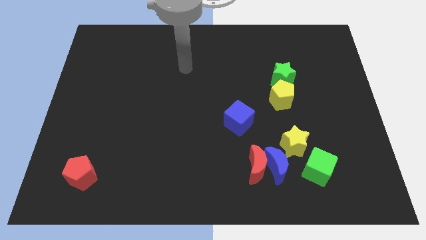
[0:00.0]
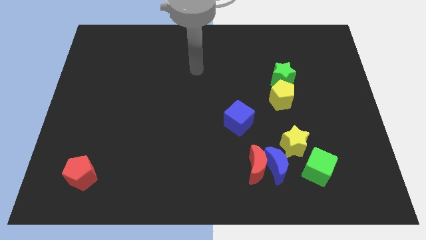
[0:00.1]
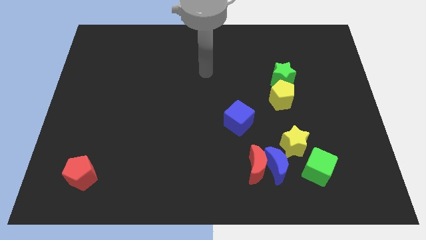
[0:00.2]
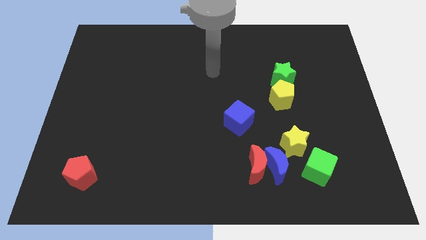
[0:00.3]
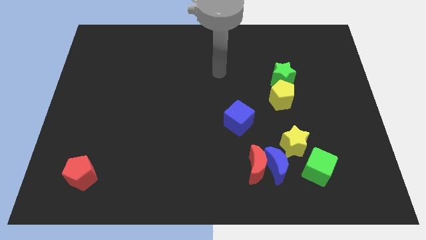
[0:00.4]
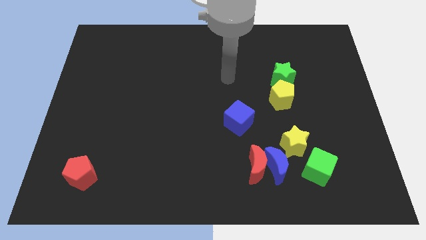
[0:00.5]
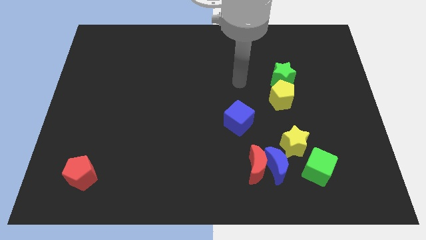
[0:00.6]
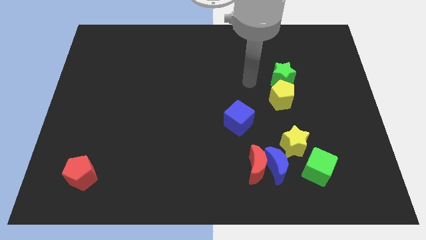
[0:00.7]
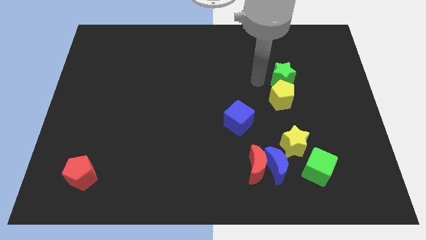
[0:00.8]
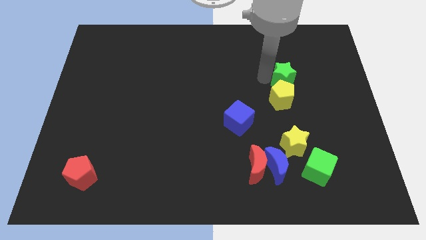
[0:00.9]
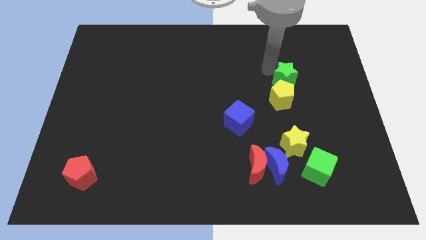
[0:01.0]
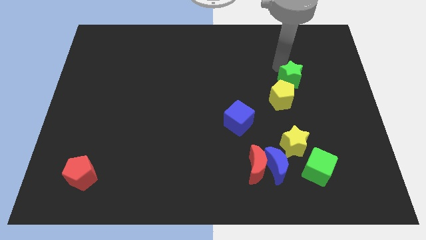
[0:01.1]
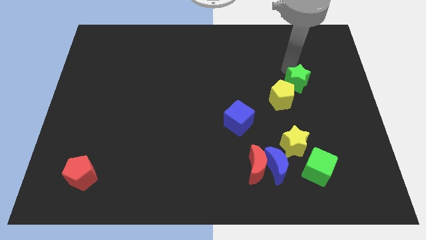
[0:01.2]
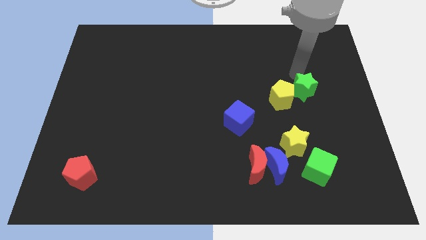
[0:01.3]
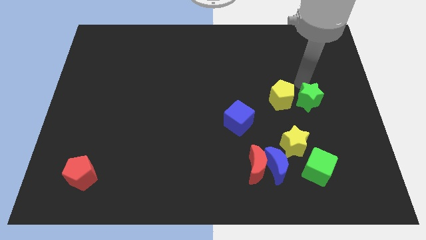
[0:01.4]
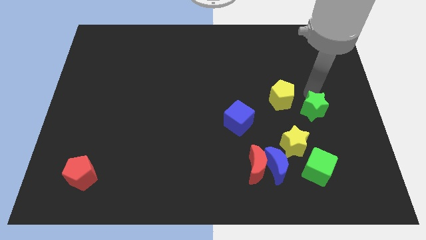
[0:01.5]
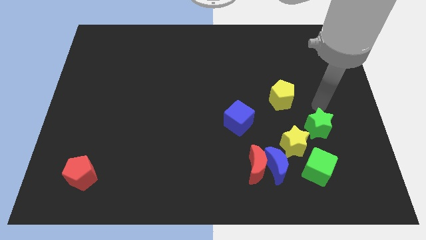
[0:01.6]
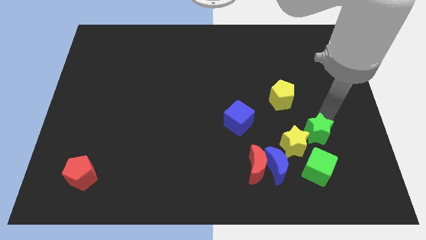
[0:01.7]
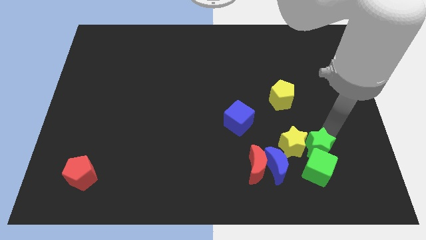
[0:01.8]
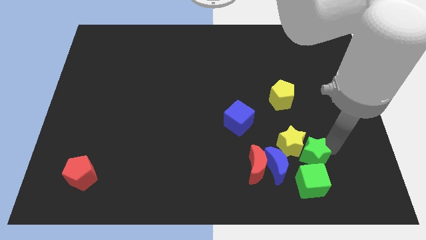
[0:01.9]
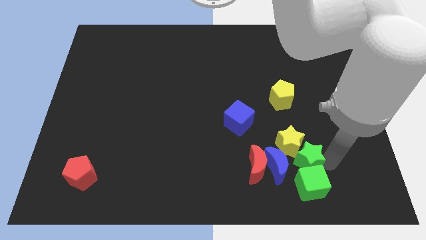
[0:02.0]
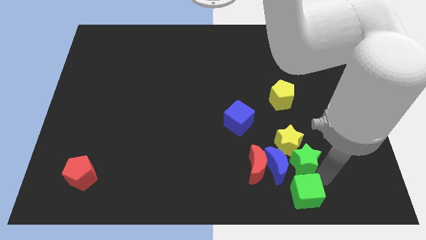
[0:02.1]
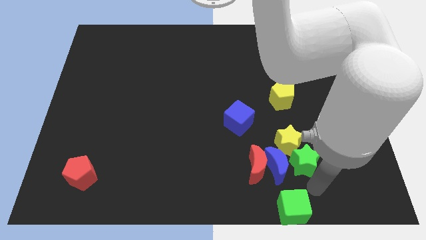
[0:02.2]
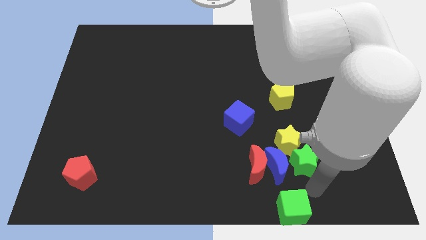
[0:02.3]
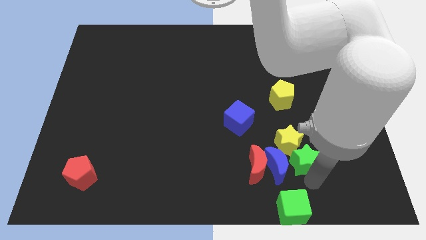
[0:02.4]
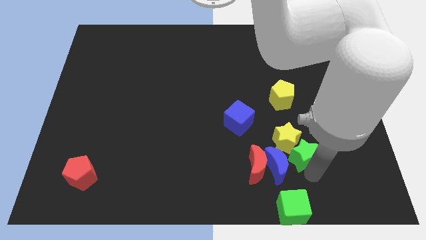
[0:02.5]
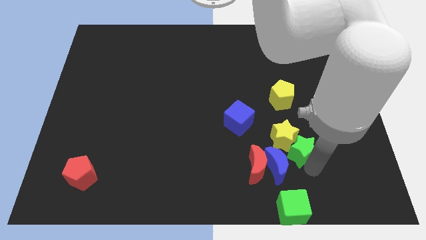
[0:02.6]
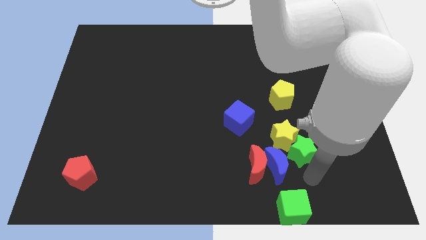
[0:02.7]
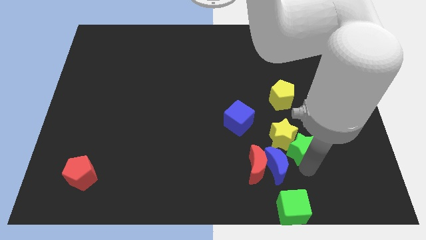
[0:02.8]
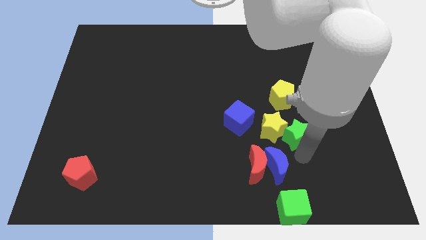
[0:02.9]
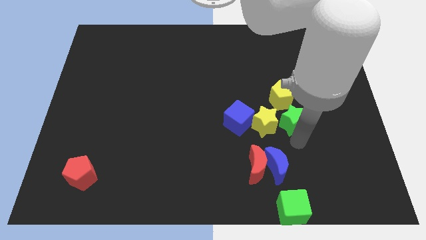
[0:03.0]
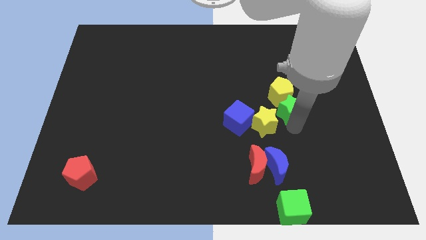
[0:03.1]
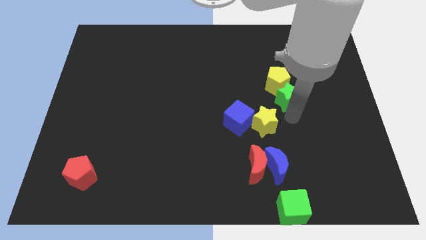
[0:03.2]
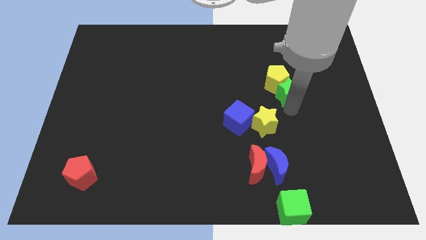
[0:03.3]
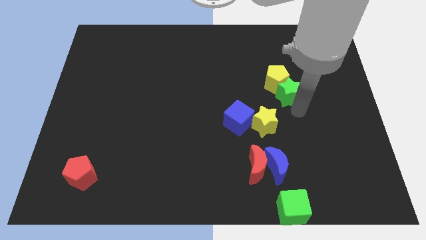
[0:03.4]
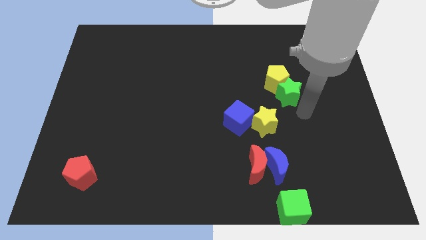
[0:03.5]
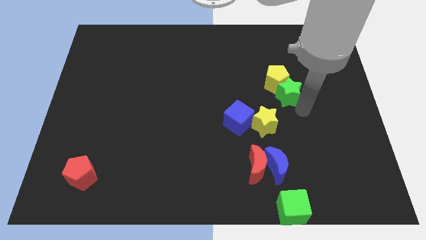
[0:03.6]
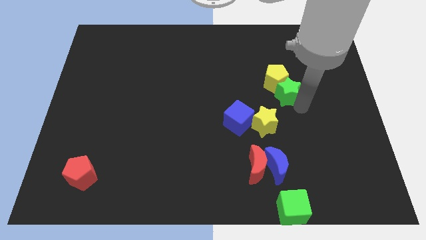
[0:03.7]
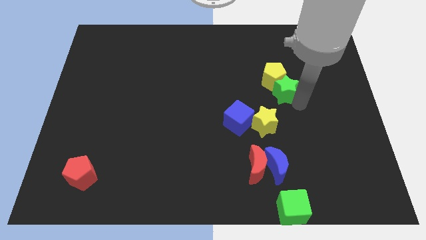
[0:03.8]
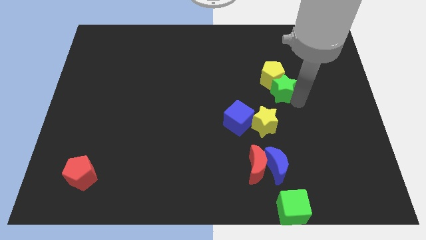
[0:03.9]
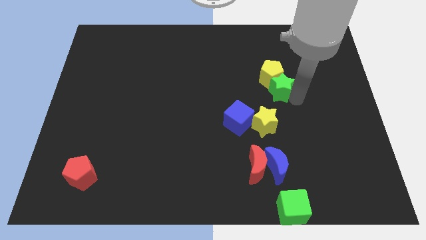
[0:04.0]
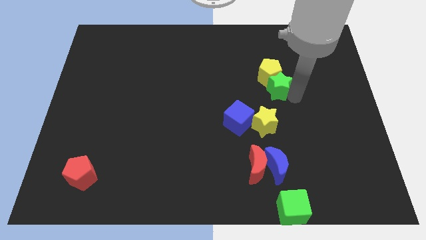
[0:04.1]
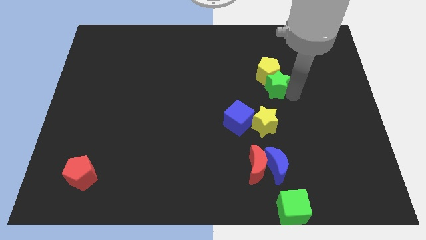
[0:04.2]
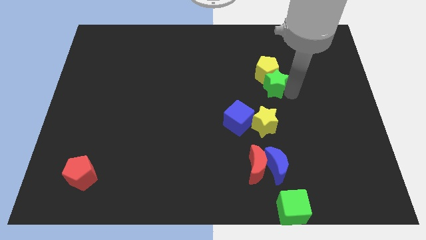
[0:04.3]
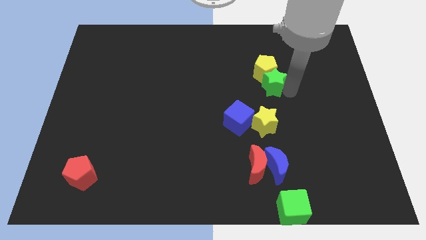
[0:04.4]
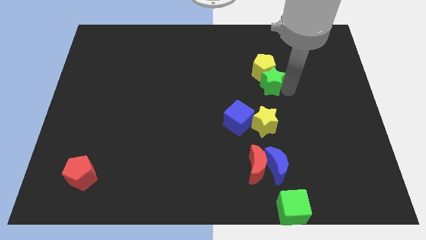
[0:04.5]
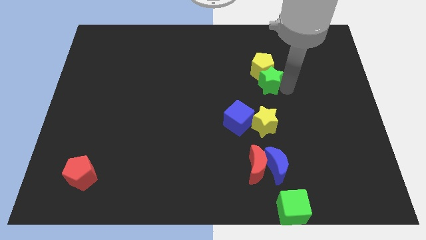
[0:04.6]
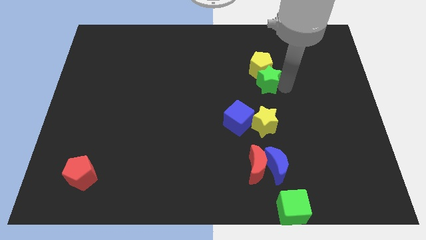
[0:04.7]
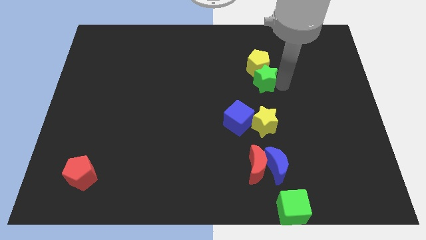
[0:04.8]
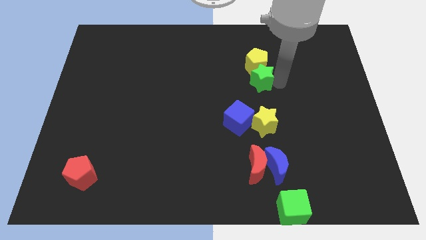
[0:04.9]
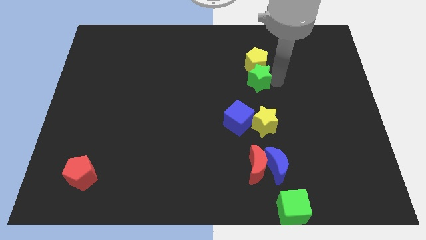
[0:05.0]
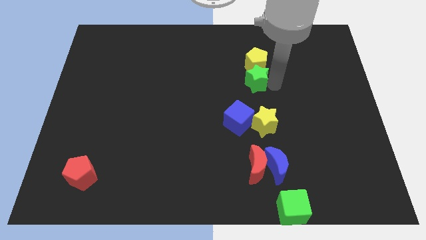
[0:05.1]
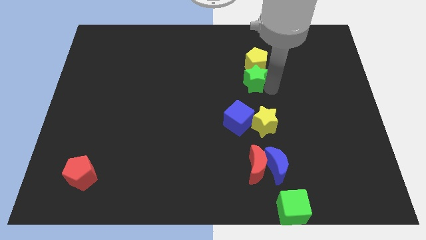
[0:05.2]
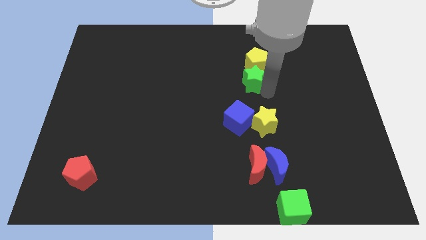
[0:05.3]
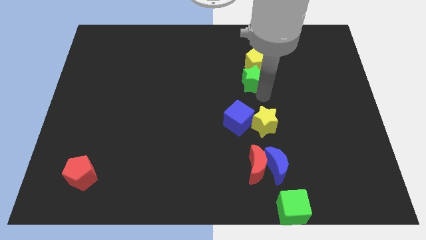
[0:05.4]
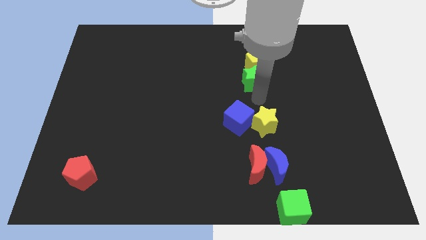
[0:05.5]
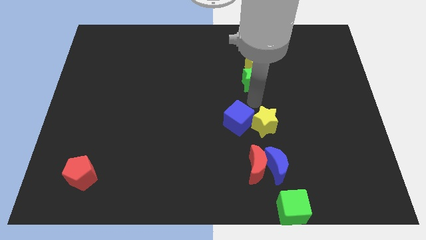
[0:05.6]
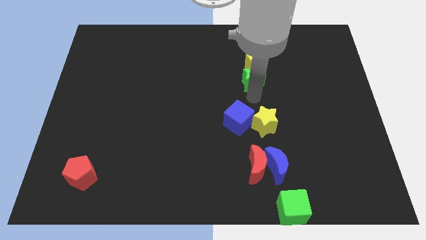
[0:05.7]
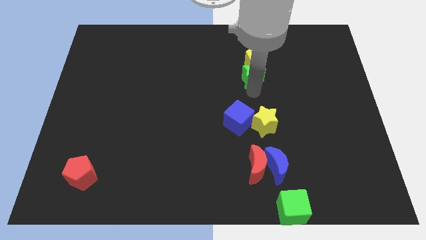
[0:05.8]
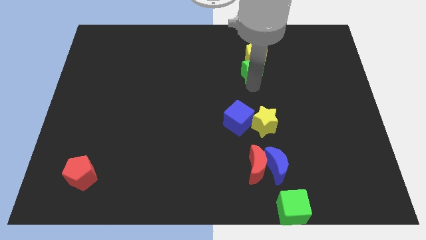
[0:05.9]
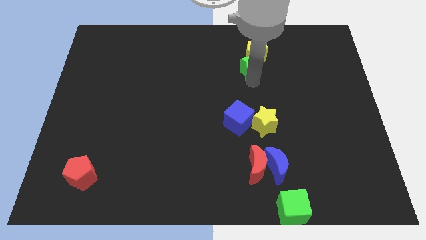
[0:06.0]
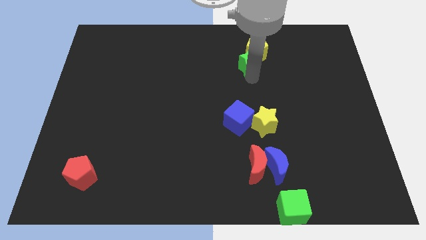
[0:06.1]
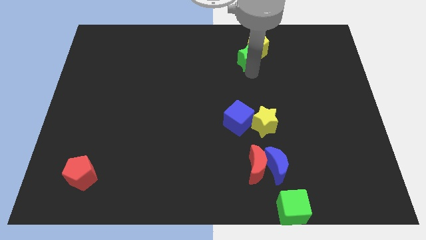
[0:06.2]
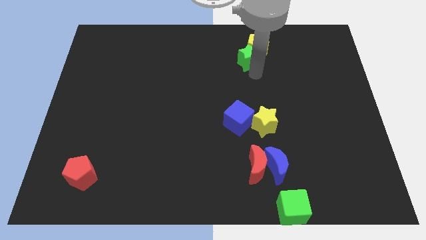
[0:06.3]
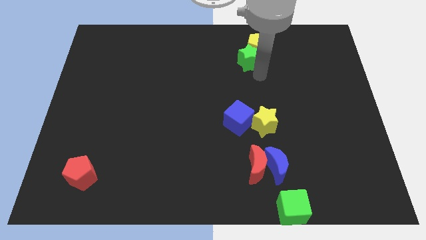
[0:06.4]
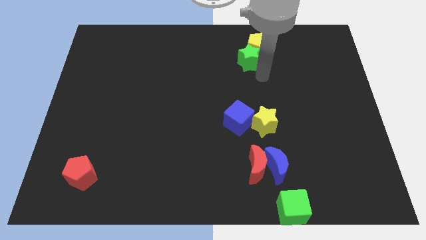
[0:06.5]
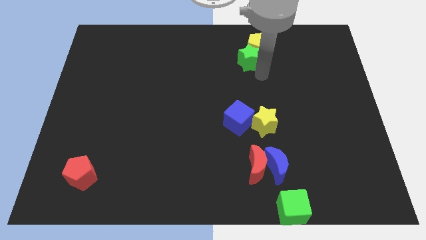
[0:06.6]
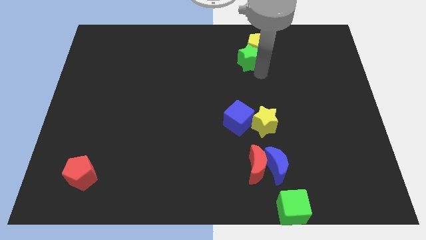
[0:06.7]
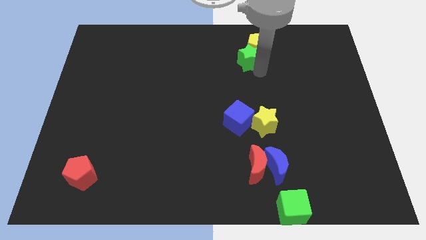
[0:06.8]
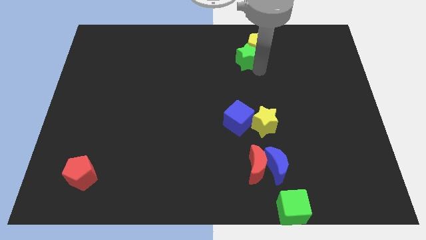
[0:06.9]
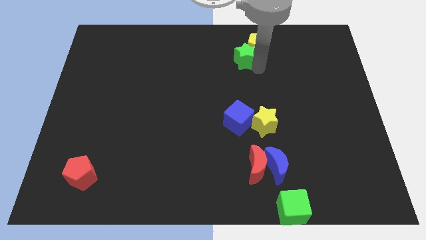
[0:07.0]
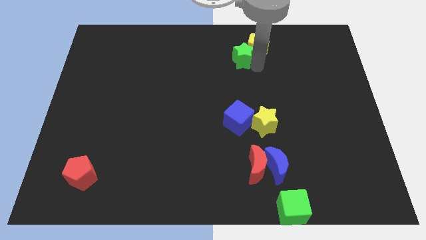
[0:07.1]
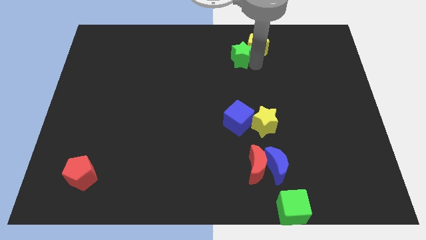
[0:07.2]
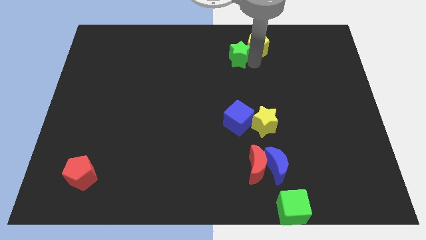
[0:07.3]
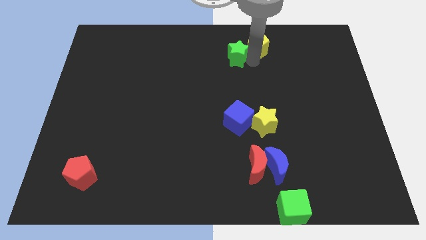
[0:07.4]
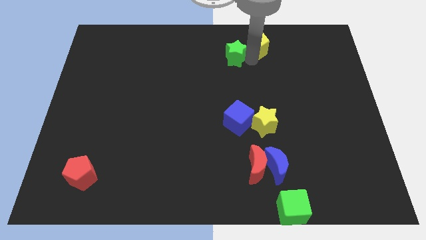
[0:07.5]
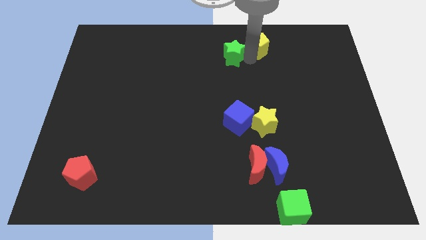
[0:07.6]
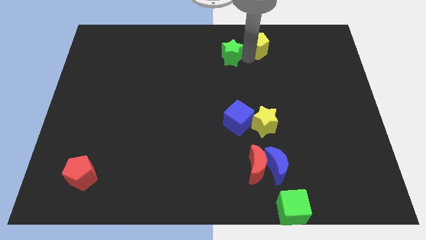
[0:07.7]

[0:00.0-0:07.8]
slide the green star to the towards your base
